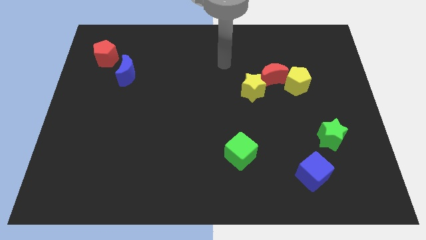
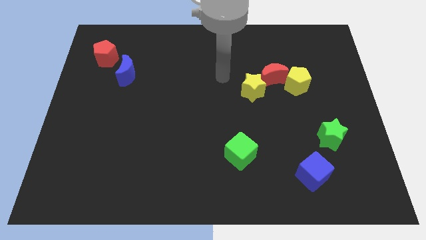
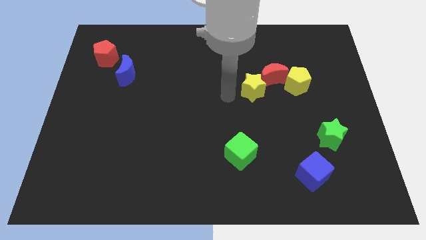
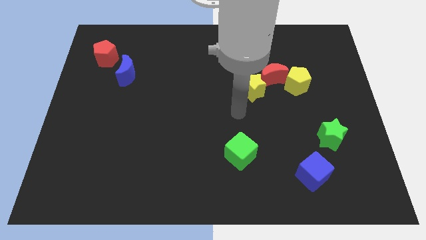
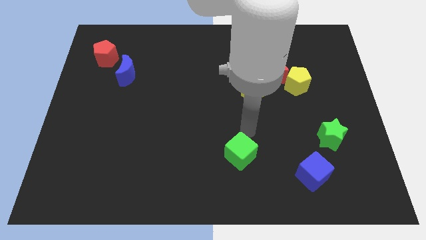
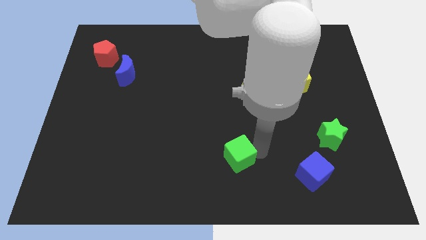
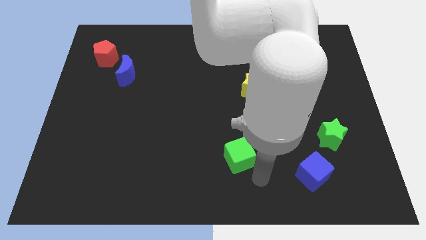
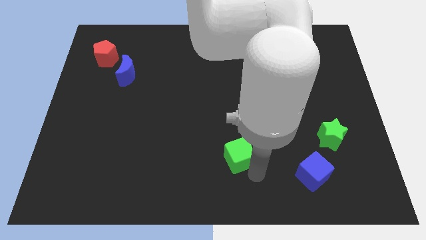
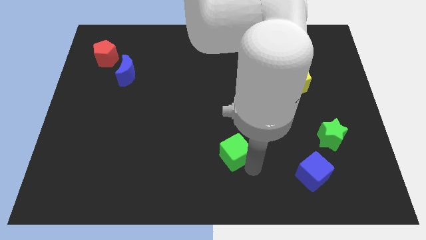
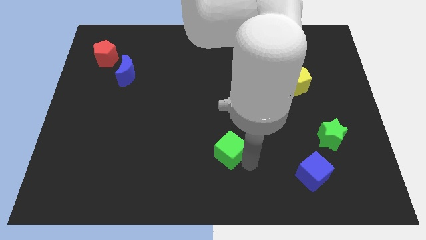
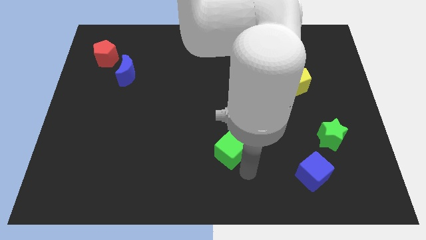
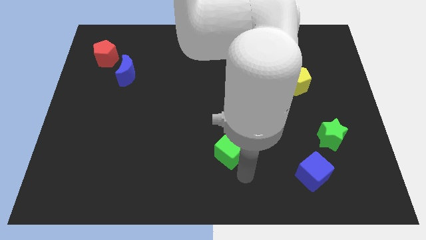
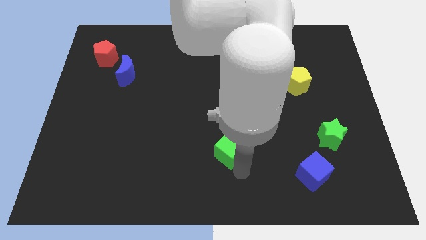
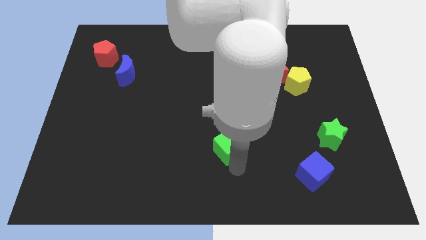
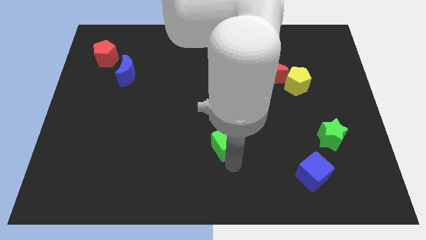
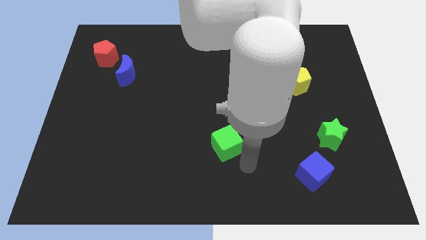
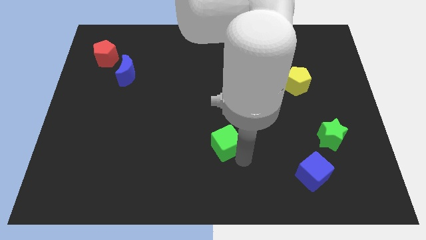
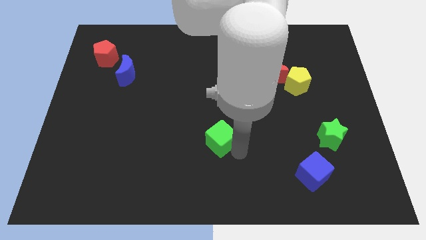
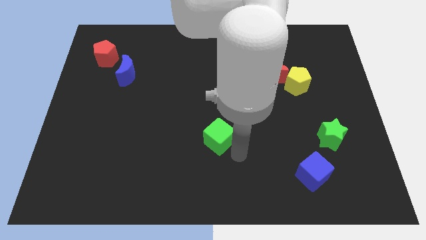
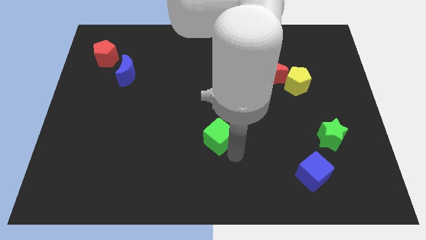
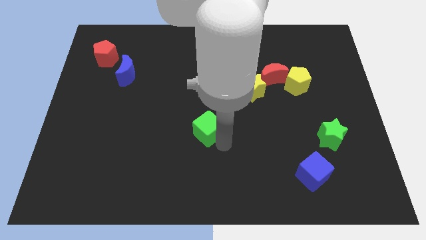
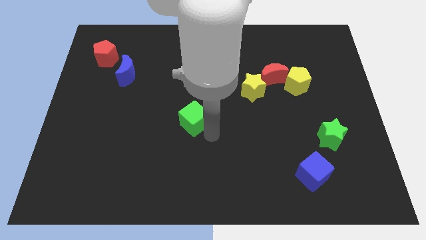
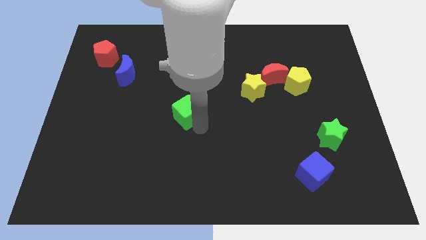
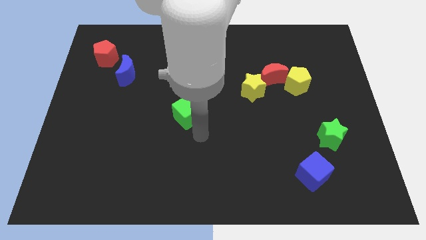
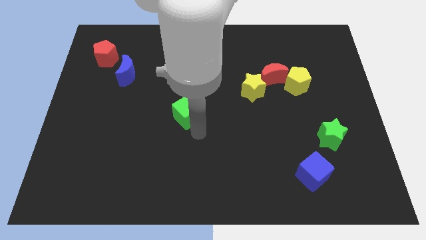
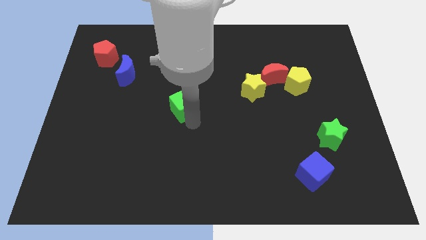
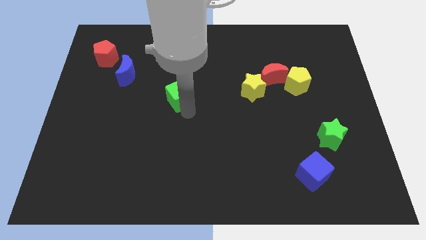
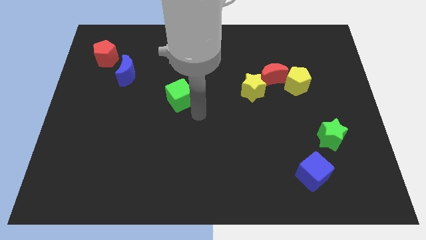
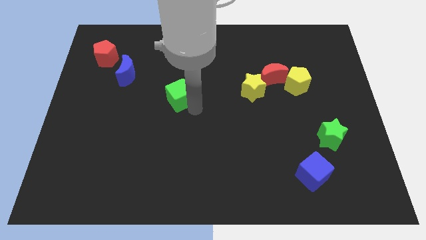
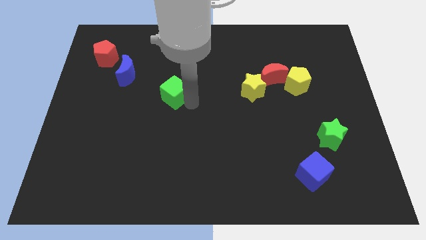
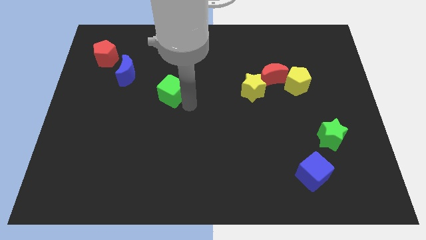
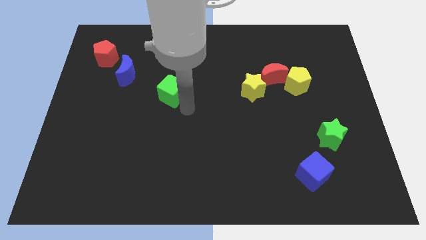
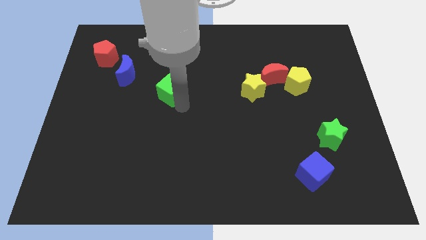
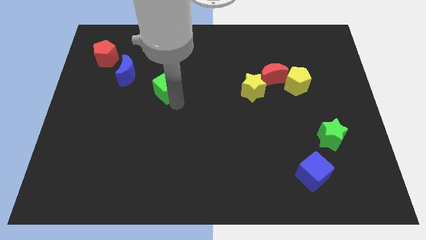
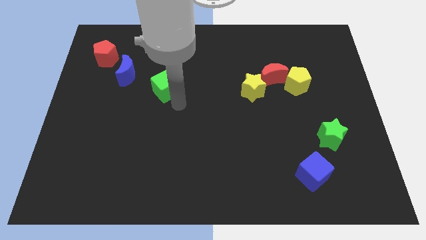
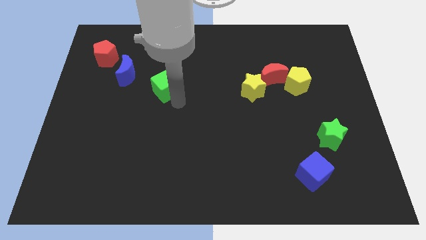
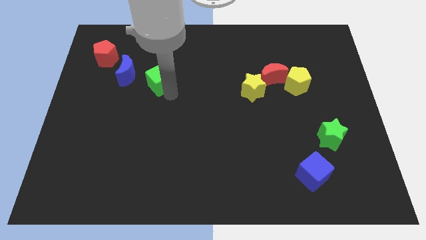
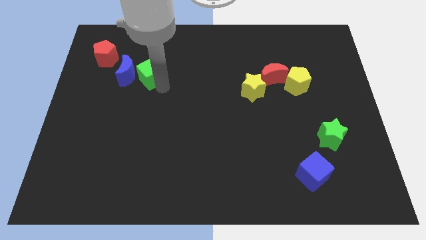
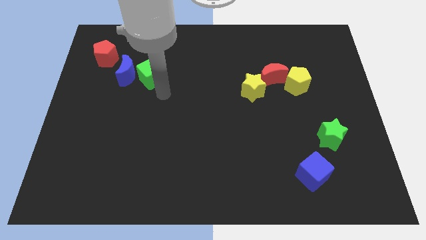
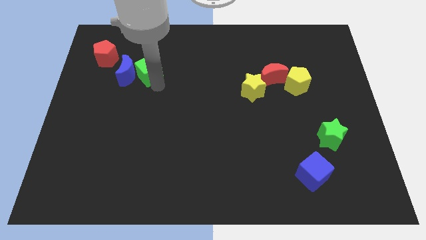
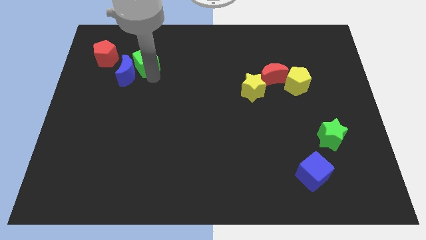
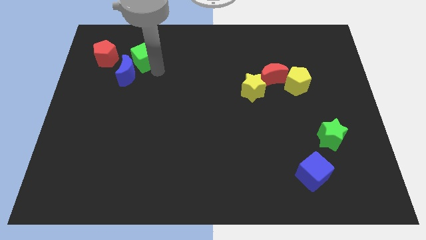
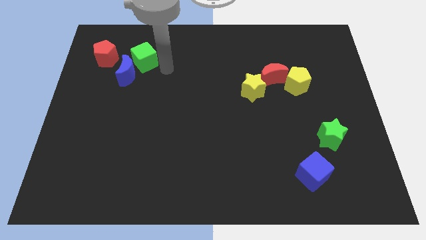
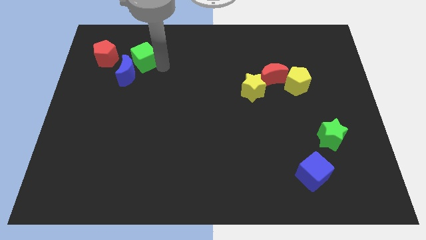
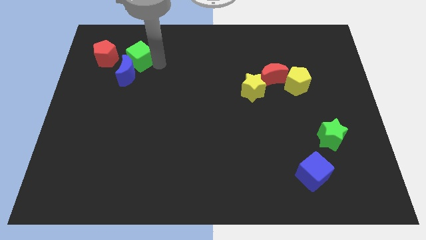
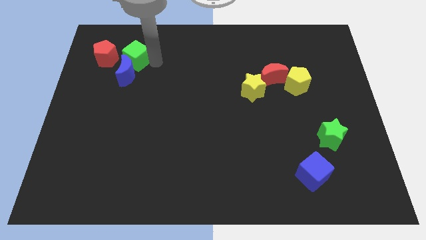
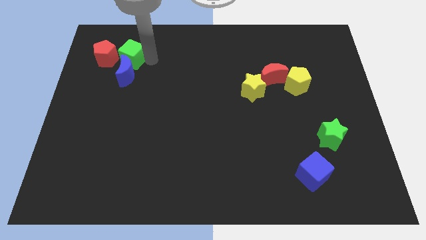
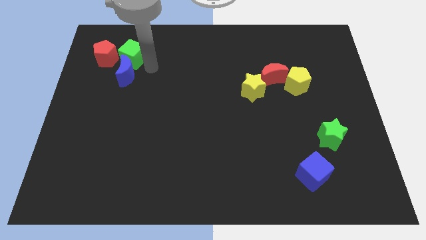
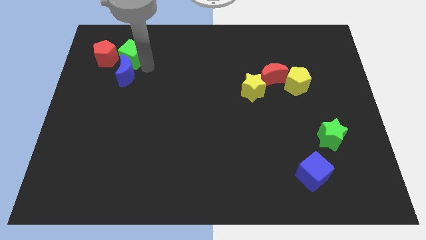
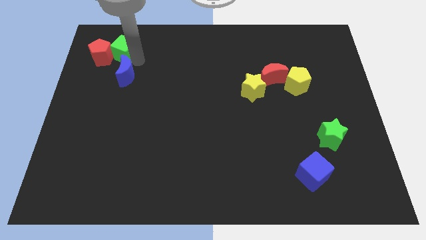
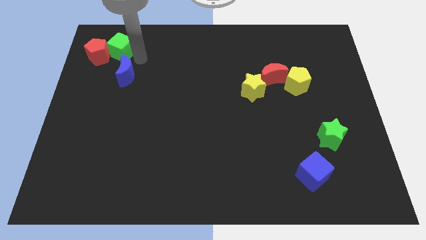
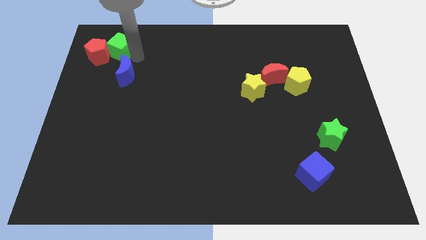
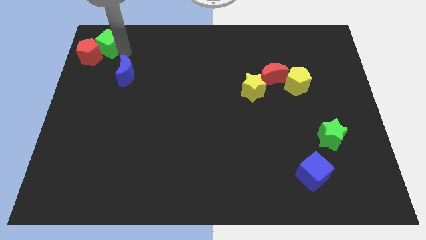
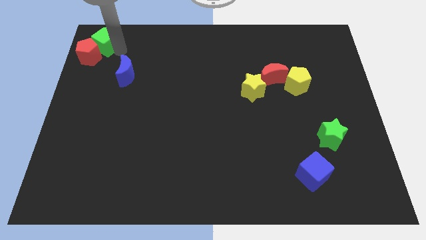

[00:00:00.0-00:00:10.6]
put the green cube to the top left
